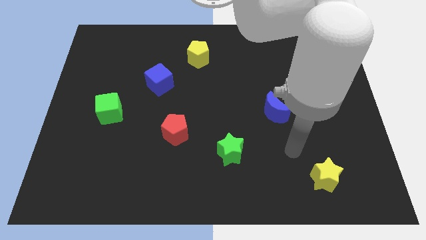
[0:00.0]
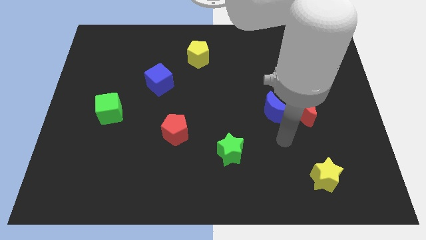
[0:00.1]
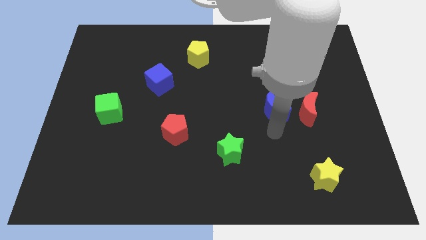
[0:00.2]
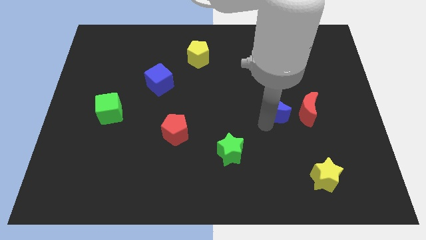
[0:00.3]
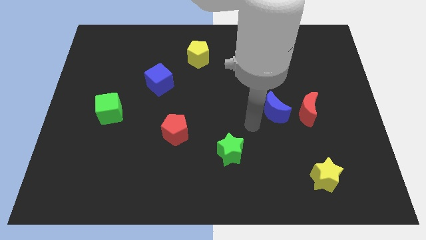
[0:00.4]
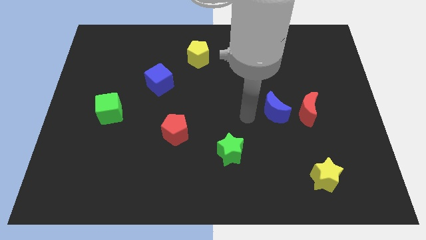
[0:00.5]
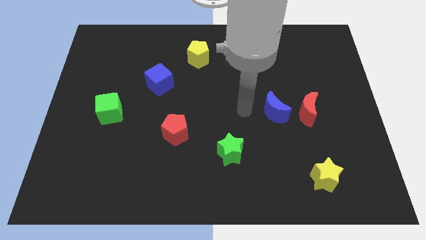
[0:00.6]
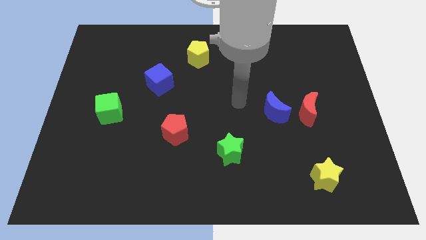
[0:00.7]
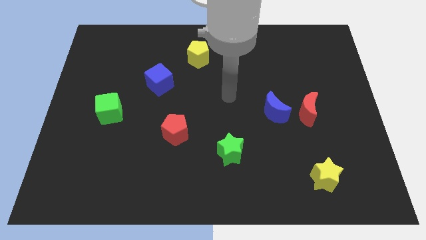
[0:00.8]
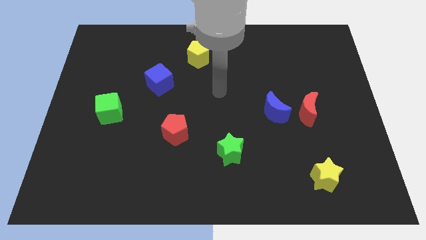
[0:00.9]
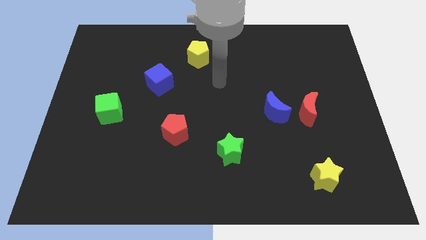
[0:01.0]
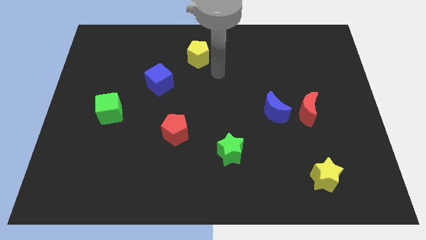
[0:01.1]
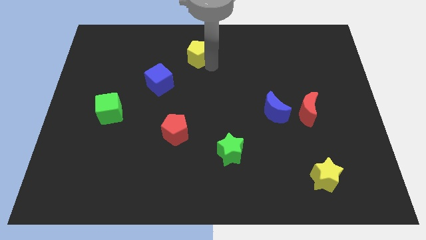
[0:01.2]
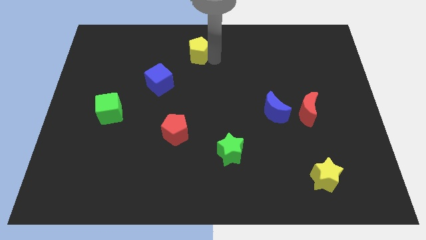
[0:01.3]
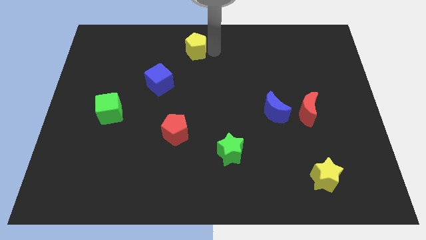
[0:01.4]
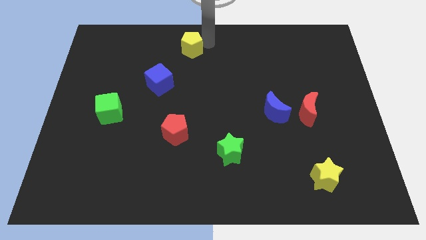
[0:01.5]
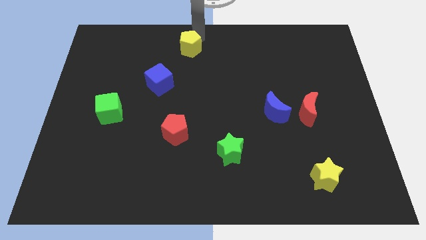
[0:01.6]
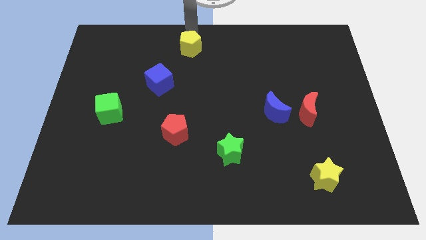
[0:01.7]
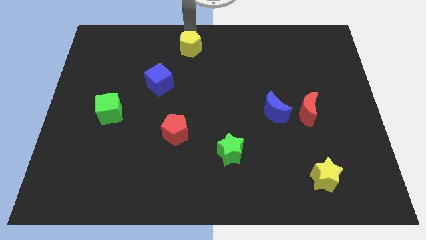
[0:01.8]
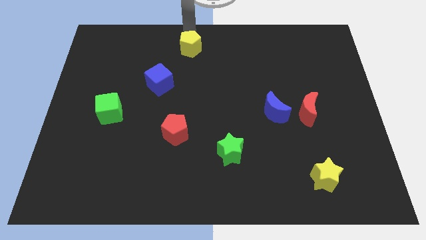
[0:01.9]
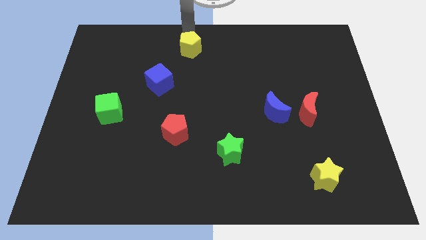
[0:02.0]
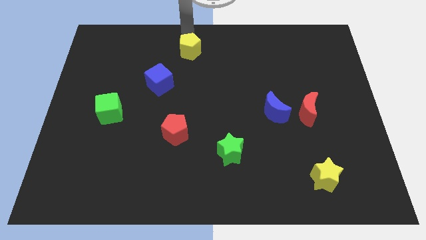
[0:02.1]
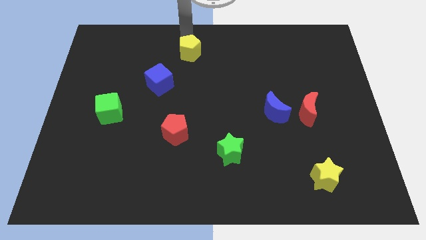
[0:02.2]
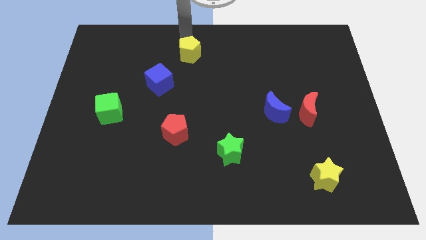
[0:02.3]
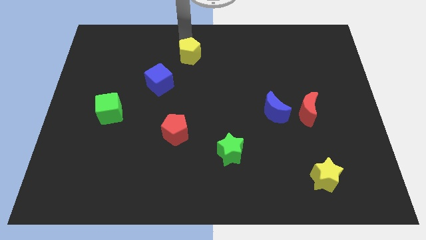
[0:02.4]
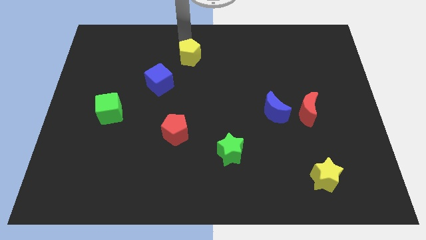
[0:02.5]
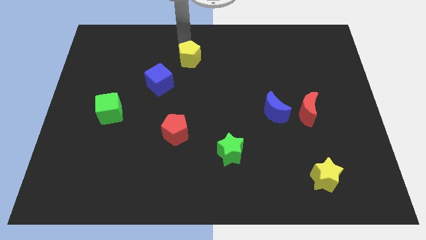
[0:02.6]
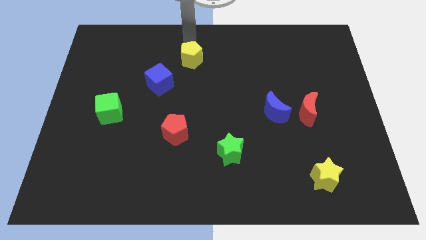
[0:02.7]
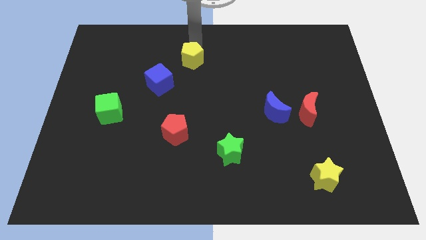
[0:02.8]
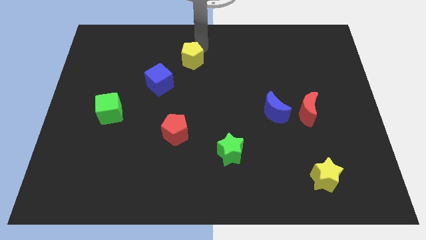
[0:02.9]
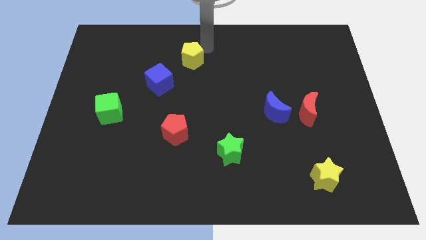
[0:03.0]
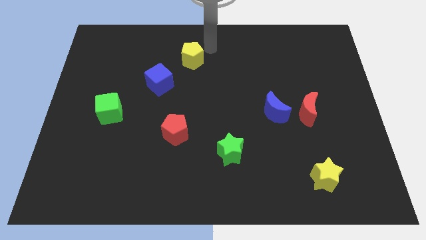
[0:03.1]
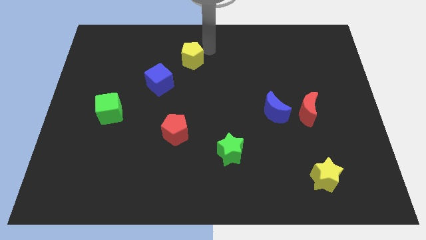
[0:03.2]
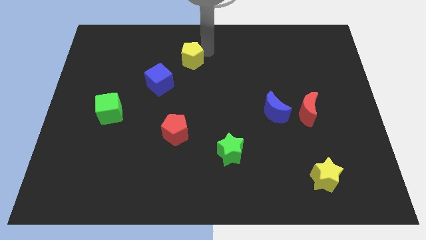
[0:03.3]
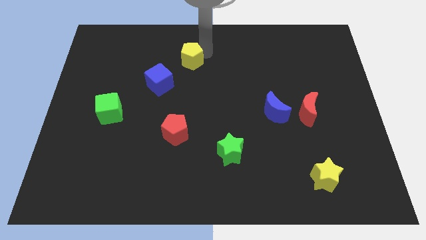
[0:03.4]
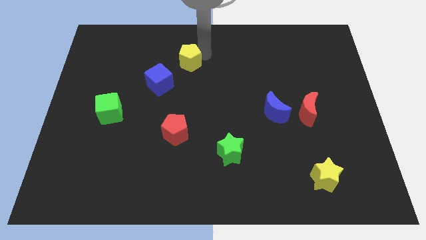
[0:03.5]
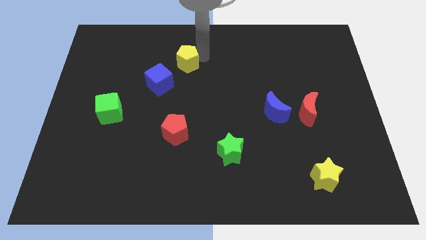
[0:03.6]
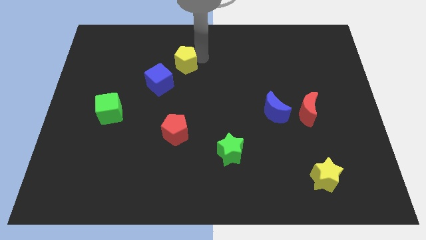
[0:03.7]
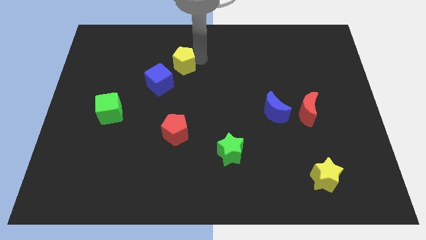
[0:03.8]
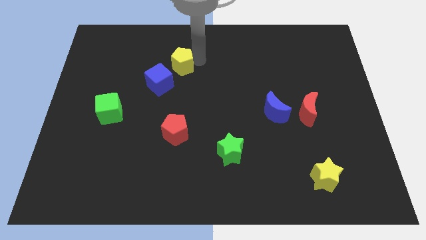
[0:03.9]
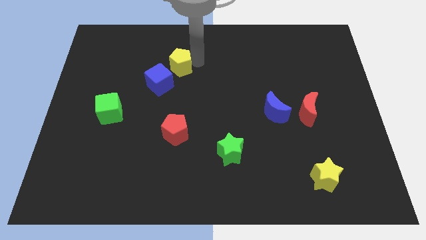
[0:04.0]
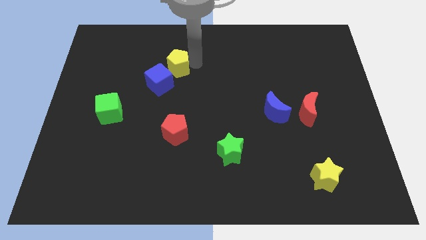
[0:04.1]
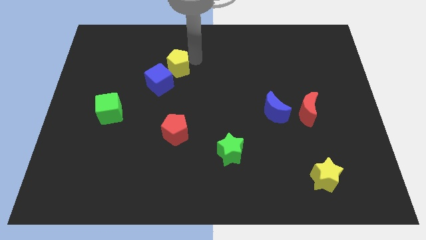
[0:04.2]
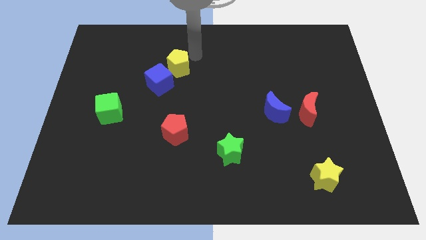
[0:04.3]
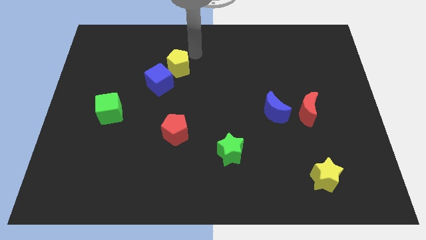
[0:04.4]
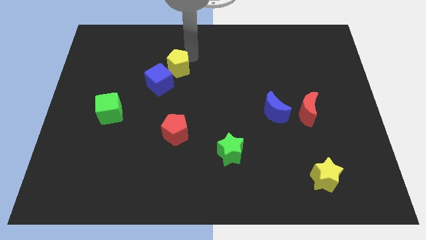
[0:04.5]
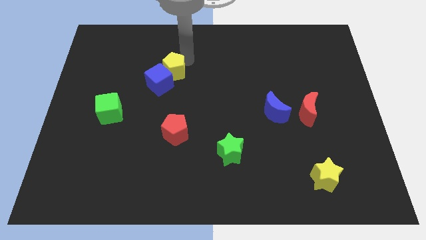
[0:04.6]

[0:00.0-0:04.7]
put the yellow pentagon next to the blue cube

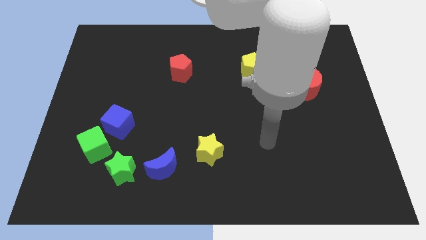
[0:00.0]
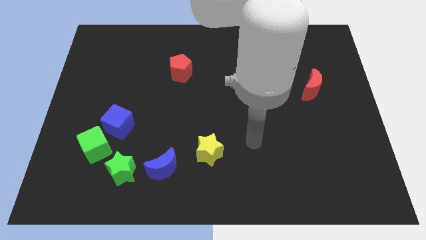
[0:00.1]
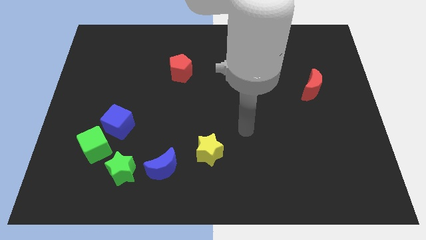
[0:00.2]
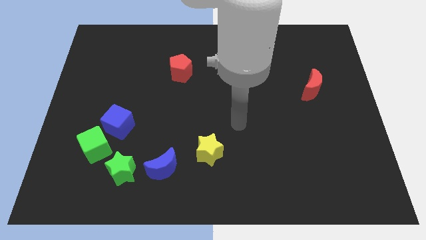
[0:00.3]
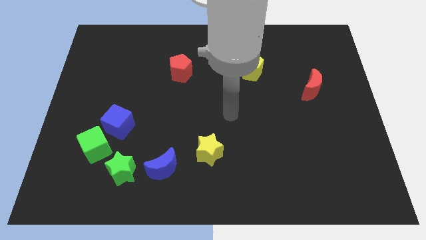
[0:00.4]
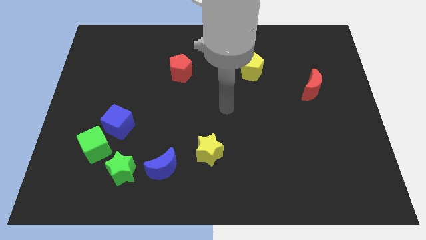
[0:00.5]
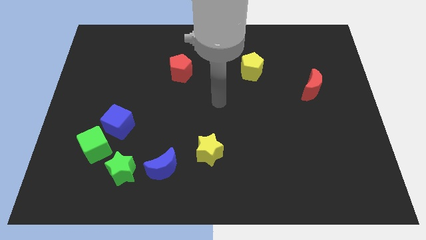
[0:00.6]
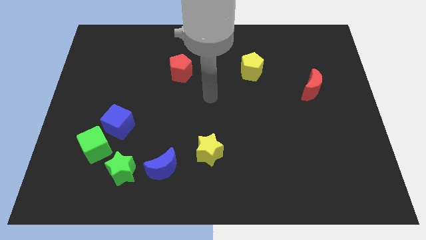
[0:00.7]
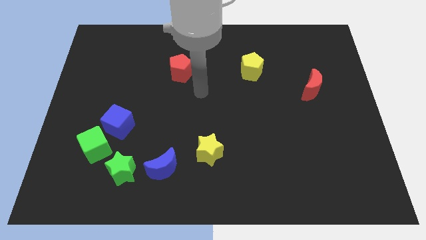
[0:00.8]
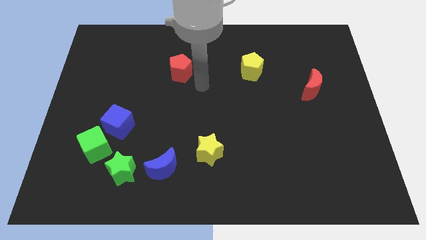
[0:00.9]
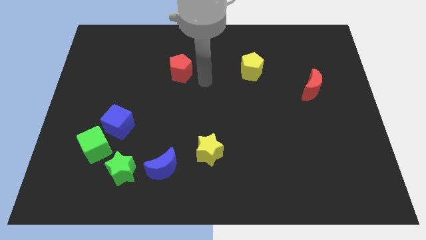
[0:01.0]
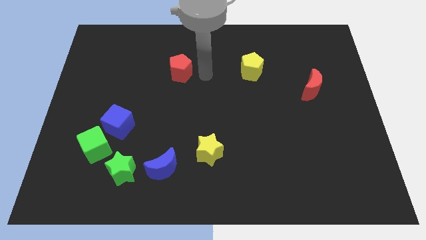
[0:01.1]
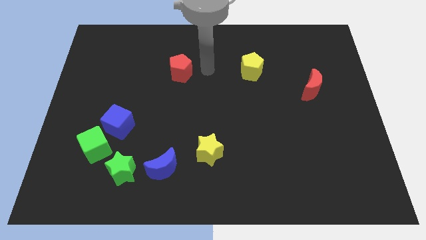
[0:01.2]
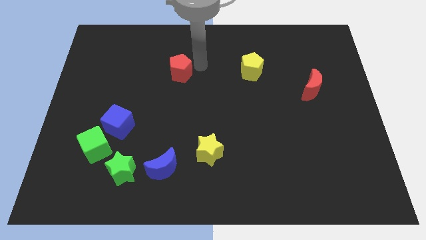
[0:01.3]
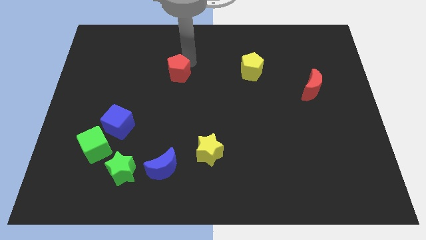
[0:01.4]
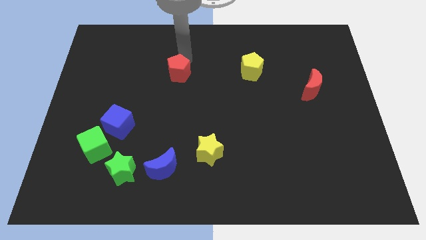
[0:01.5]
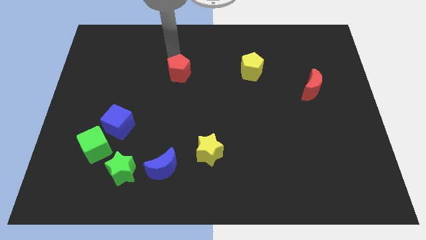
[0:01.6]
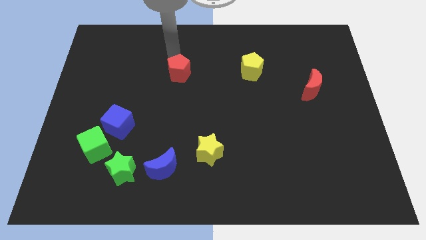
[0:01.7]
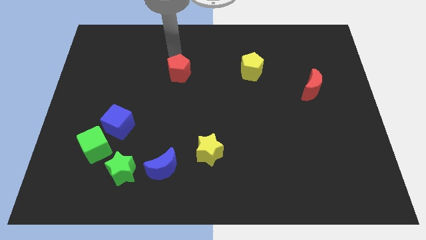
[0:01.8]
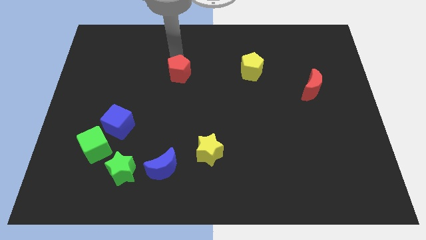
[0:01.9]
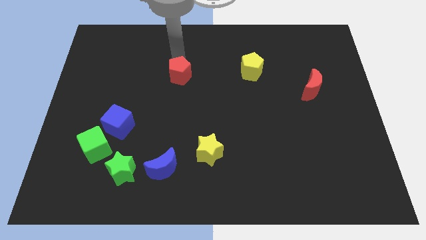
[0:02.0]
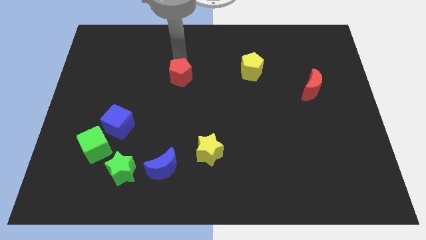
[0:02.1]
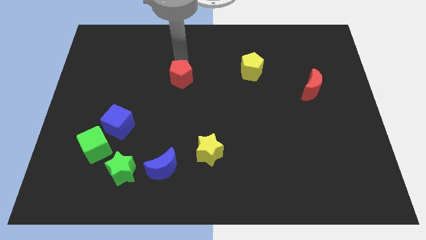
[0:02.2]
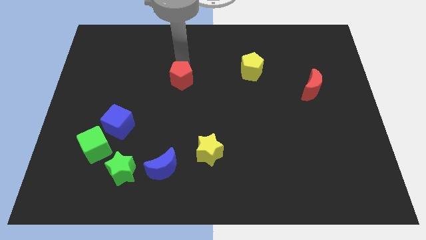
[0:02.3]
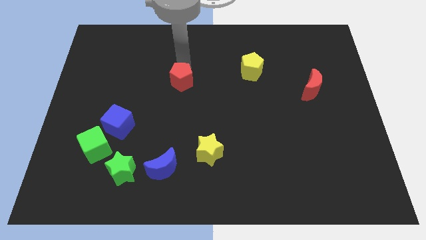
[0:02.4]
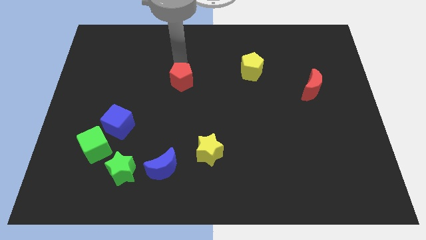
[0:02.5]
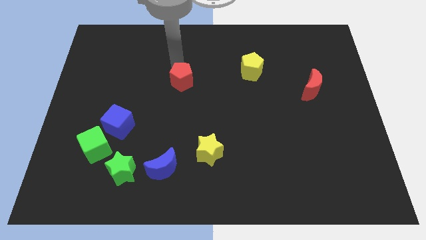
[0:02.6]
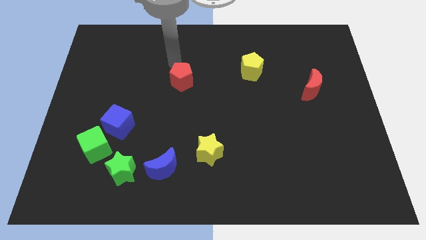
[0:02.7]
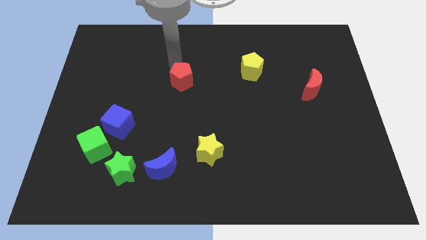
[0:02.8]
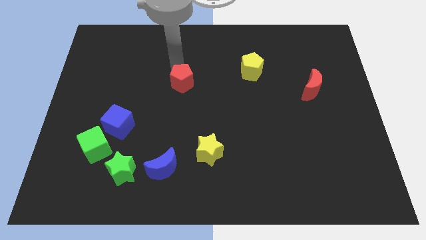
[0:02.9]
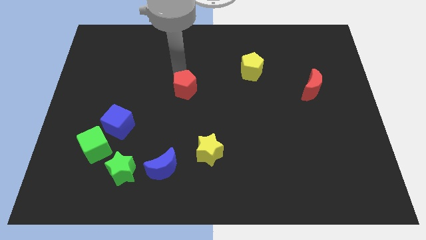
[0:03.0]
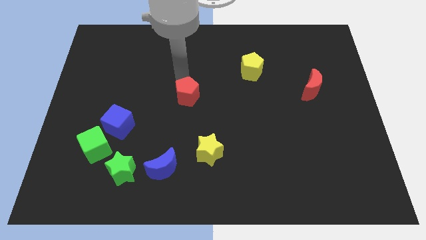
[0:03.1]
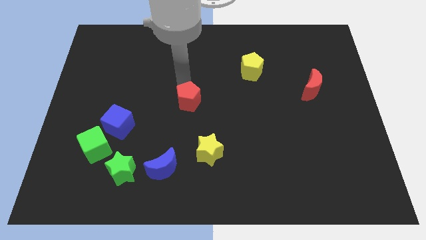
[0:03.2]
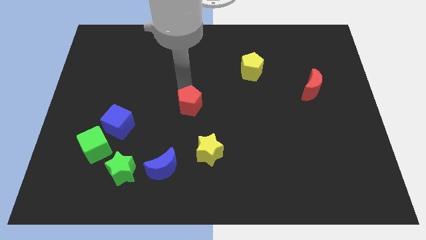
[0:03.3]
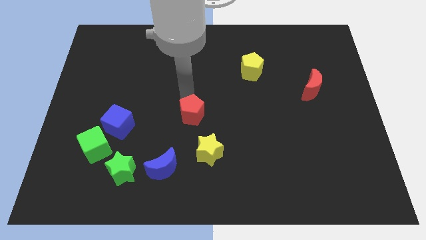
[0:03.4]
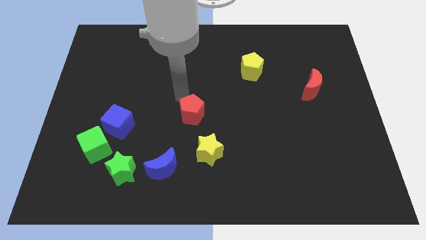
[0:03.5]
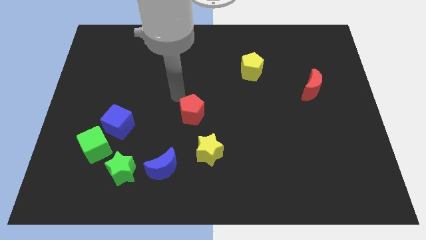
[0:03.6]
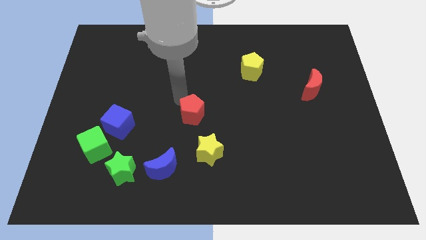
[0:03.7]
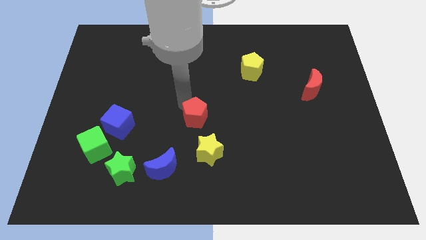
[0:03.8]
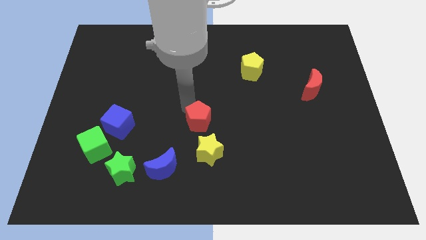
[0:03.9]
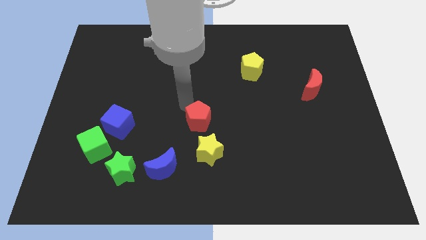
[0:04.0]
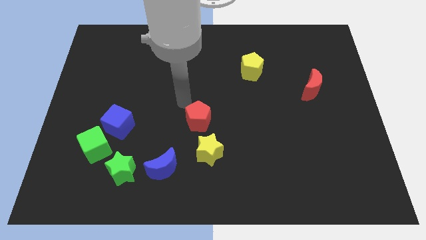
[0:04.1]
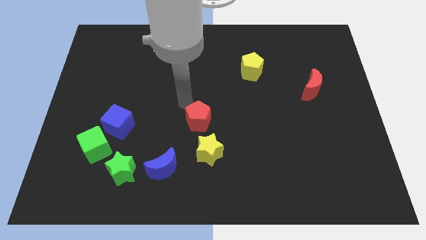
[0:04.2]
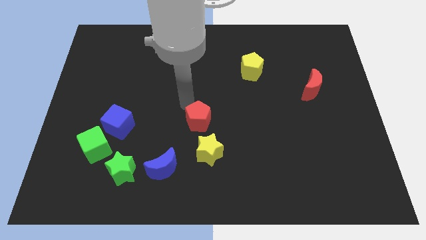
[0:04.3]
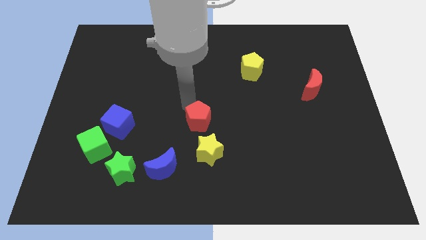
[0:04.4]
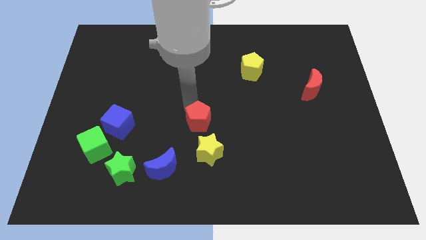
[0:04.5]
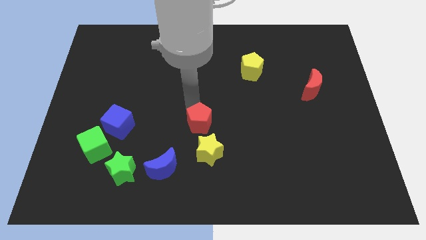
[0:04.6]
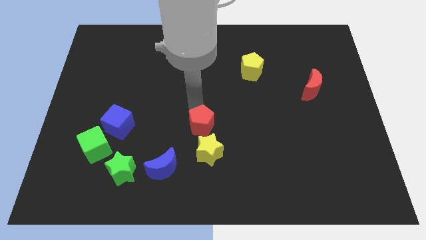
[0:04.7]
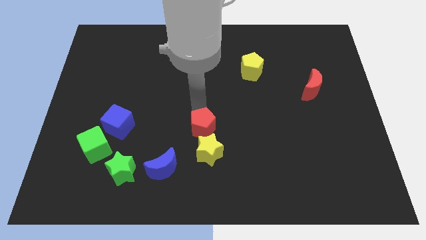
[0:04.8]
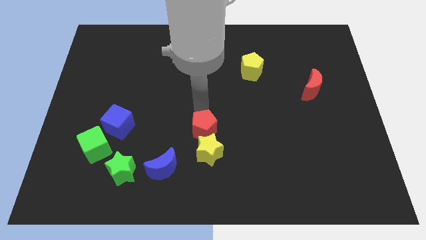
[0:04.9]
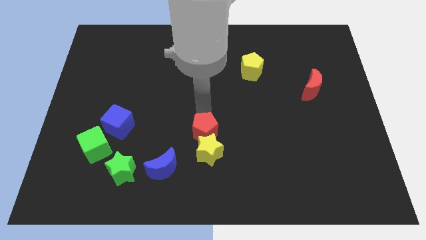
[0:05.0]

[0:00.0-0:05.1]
move the red pentagon to the yellow star
